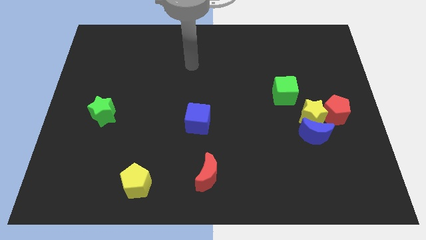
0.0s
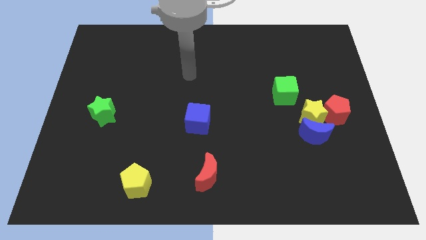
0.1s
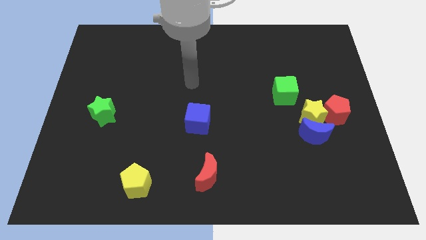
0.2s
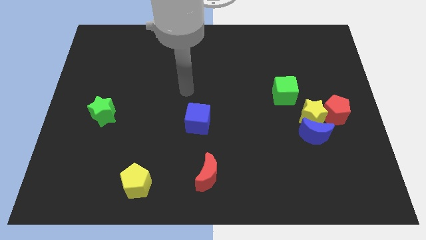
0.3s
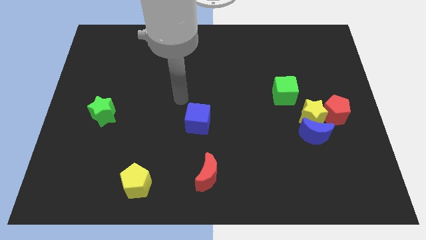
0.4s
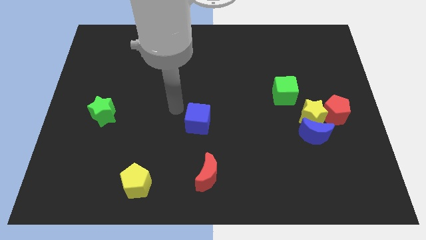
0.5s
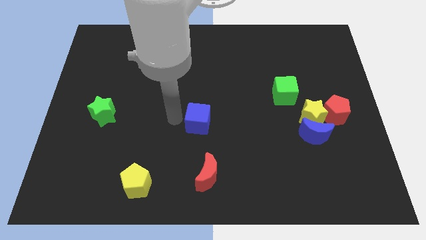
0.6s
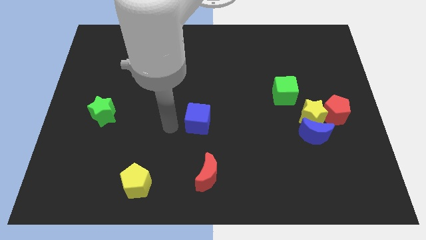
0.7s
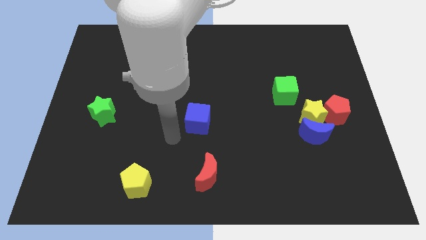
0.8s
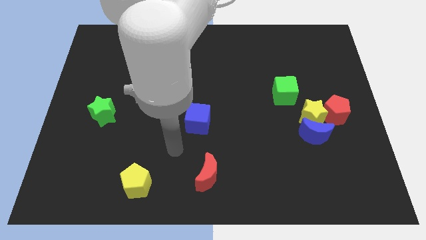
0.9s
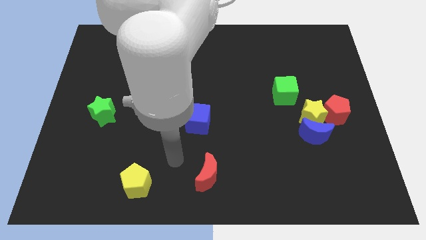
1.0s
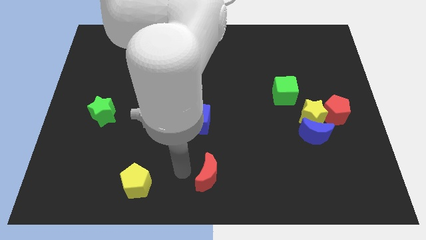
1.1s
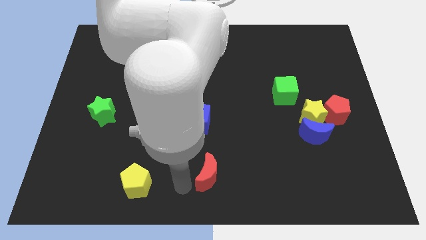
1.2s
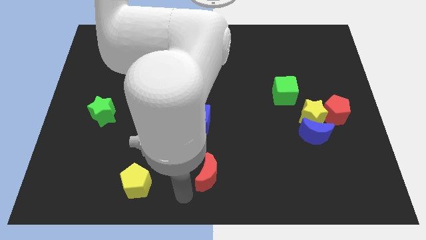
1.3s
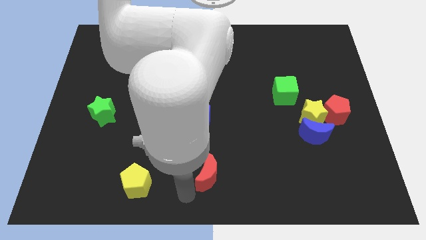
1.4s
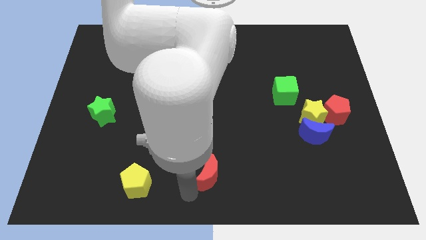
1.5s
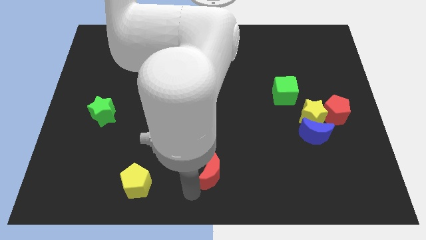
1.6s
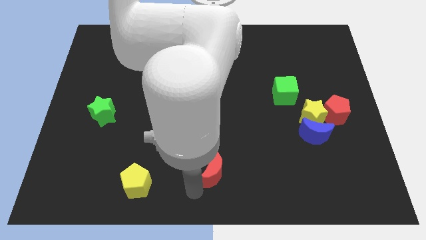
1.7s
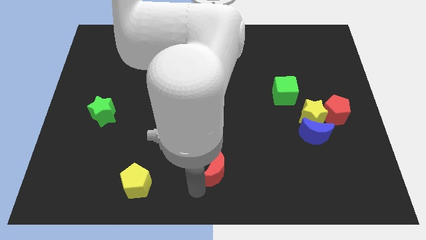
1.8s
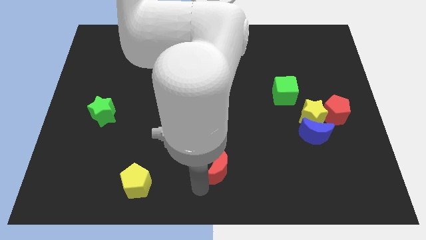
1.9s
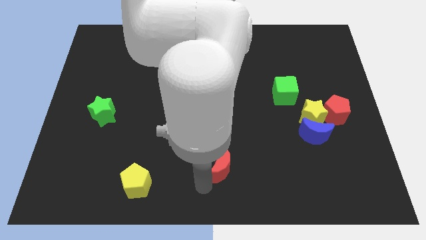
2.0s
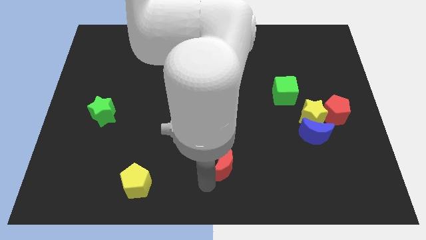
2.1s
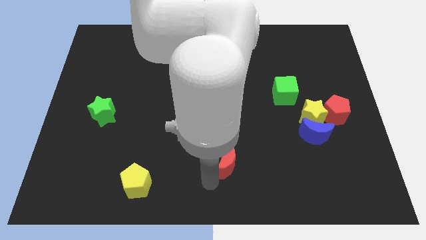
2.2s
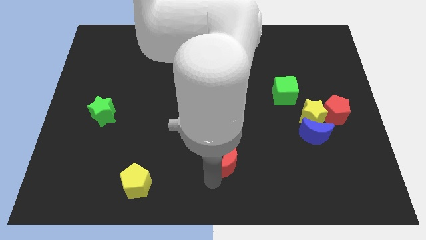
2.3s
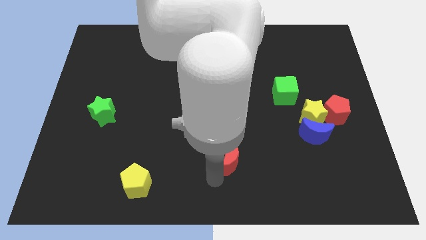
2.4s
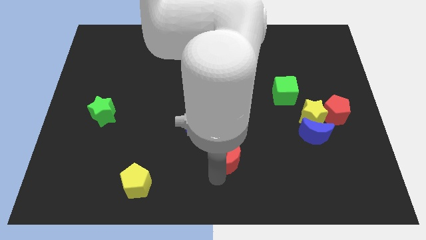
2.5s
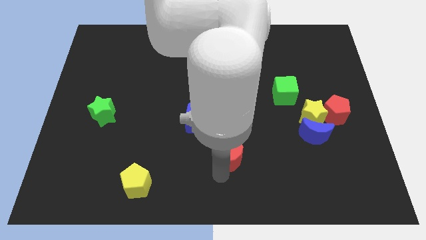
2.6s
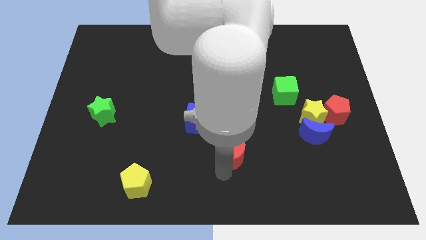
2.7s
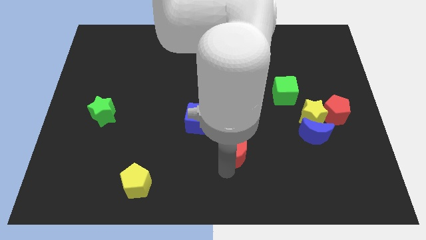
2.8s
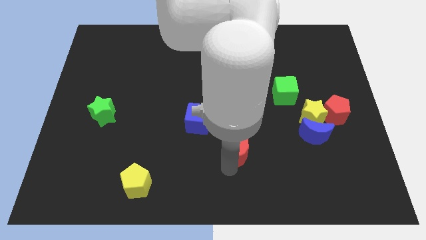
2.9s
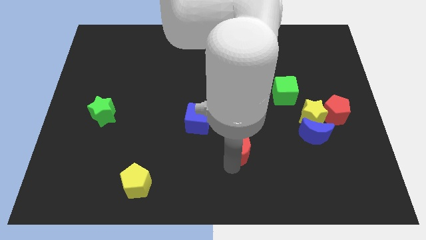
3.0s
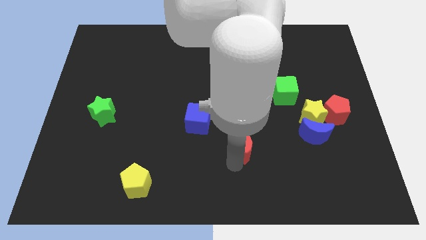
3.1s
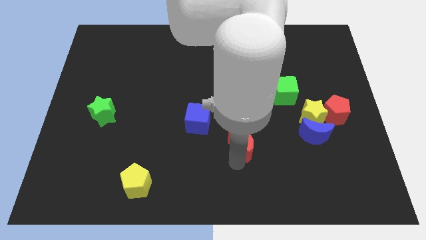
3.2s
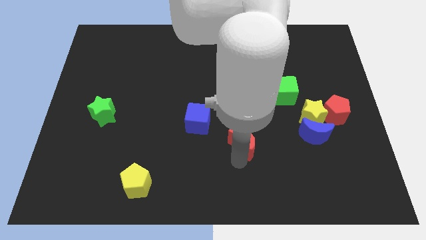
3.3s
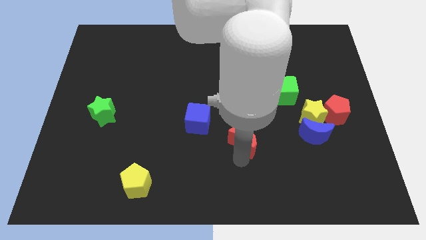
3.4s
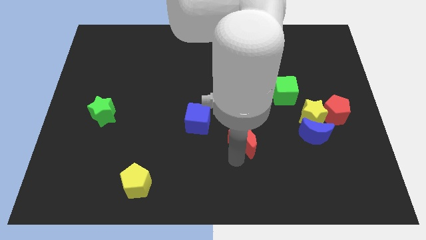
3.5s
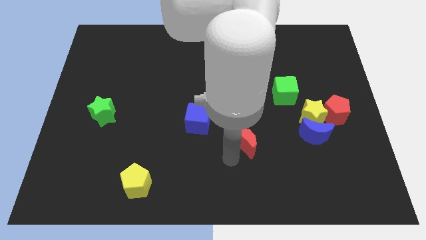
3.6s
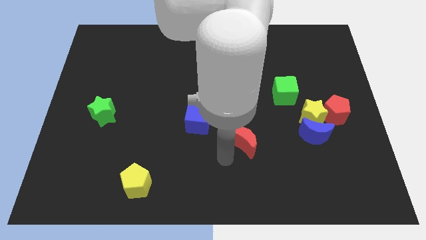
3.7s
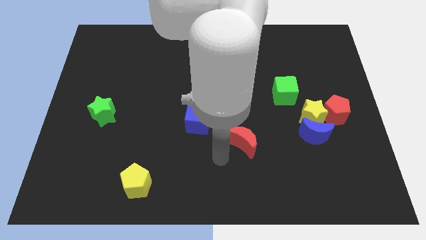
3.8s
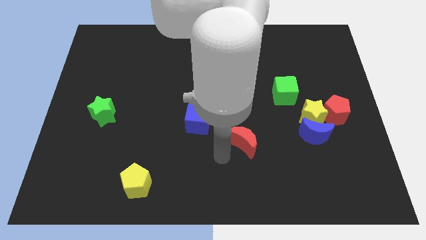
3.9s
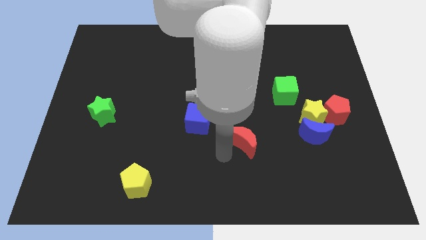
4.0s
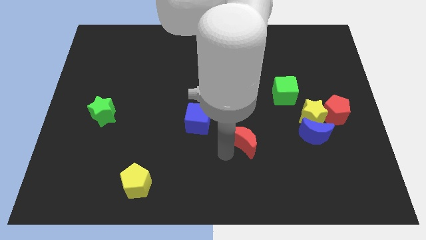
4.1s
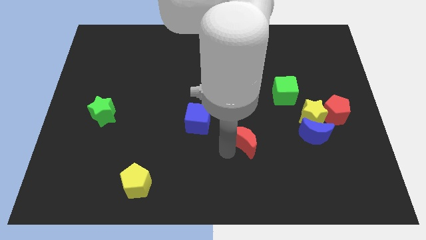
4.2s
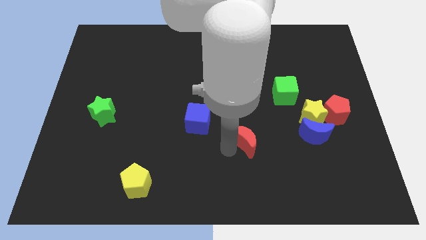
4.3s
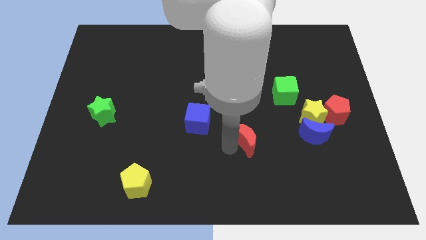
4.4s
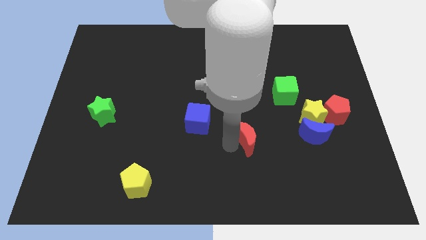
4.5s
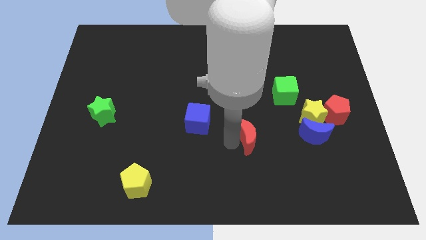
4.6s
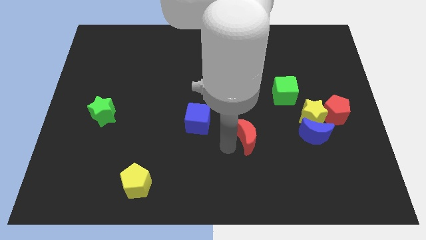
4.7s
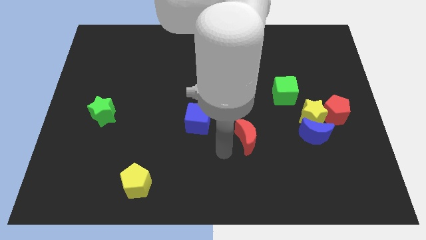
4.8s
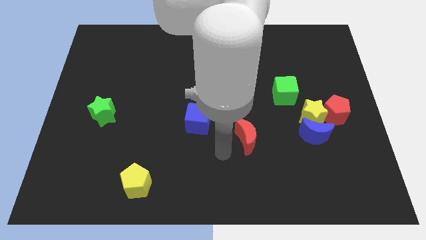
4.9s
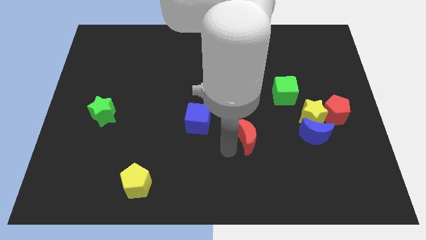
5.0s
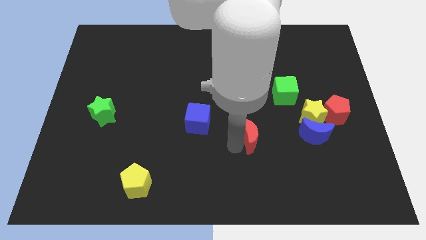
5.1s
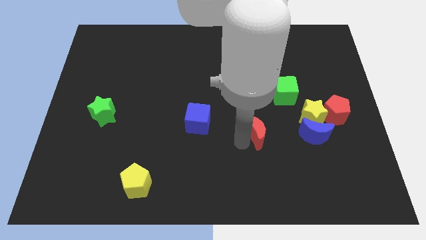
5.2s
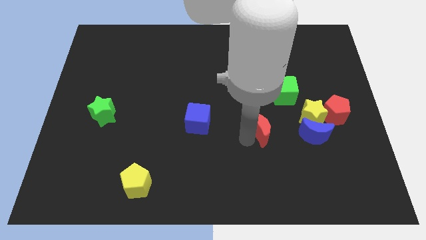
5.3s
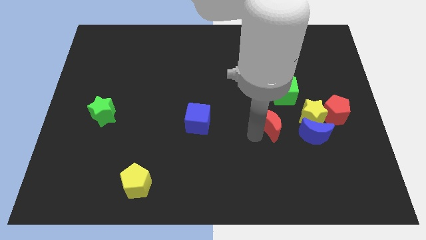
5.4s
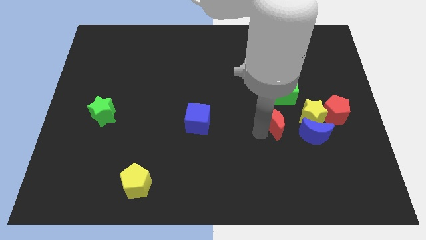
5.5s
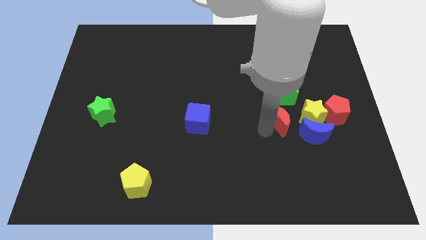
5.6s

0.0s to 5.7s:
push the red moon diagonally up and right

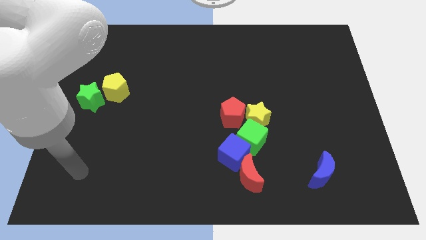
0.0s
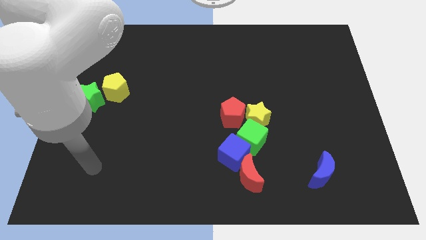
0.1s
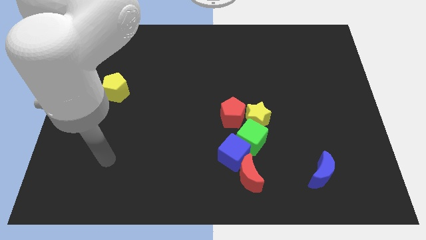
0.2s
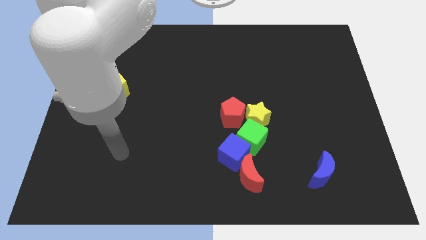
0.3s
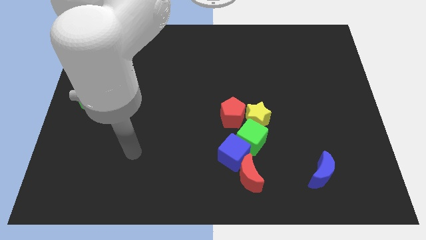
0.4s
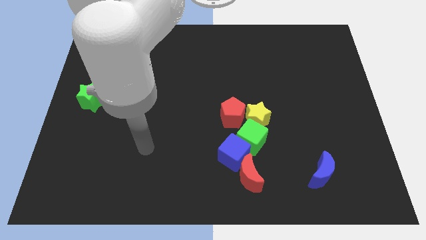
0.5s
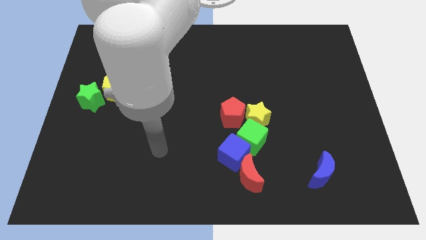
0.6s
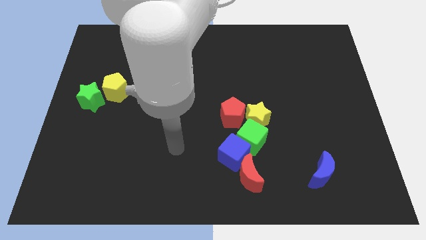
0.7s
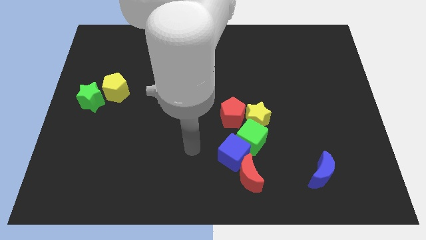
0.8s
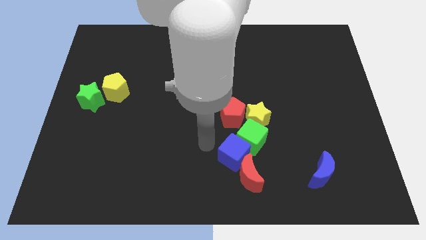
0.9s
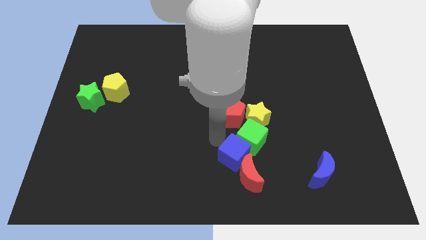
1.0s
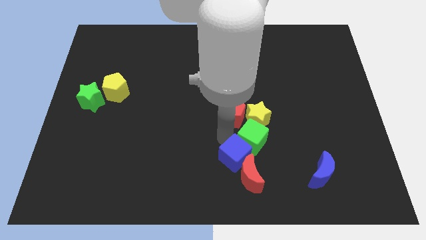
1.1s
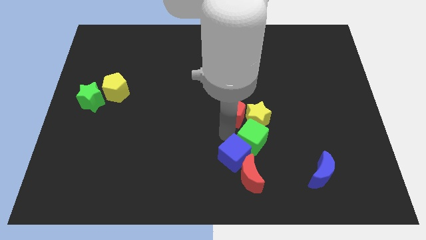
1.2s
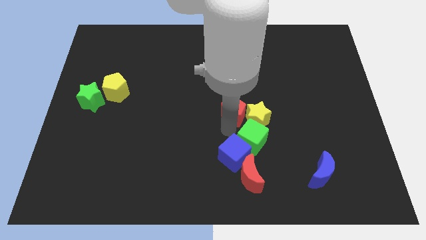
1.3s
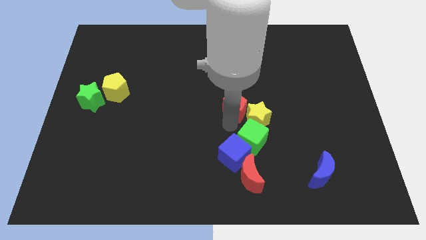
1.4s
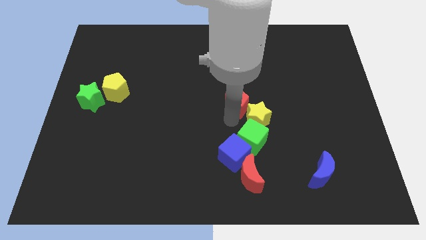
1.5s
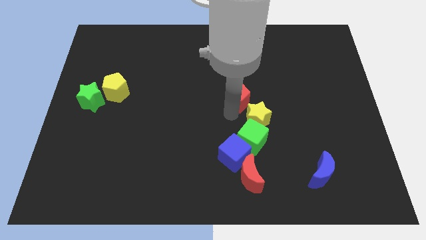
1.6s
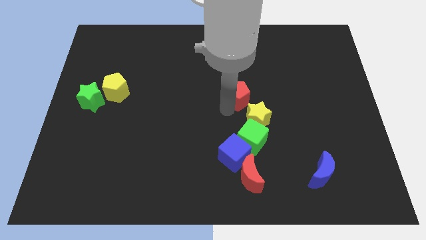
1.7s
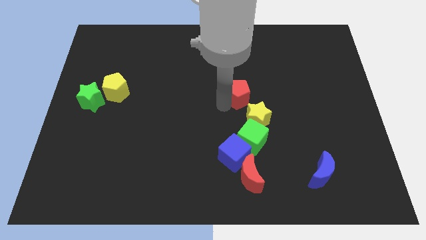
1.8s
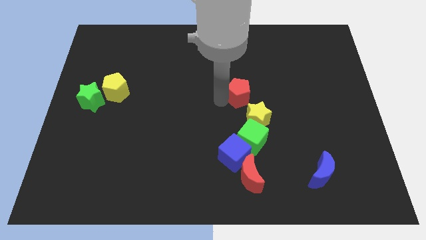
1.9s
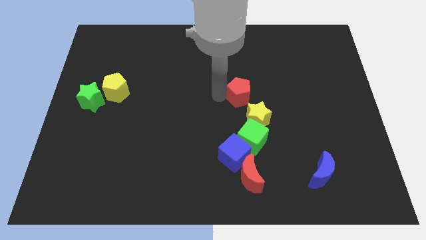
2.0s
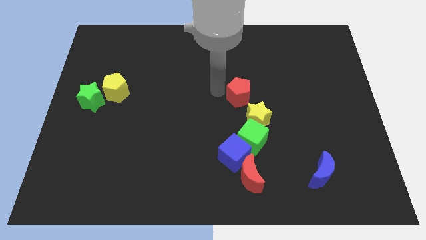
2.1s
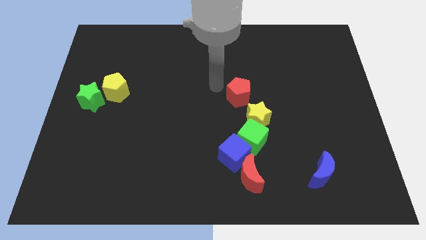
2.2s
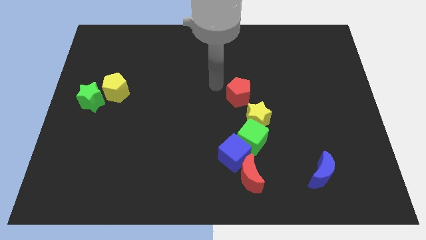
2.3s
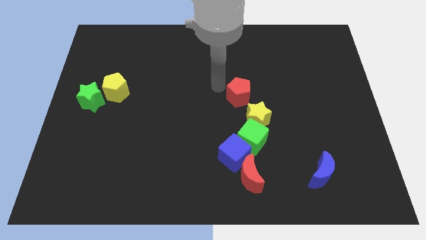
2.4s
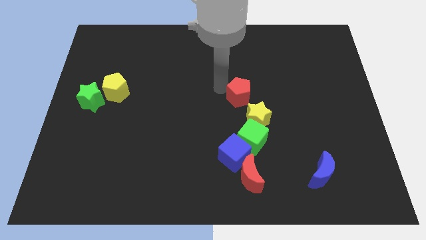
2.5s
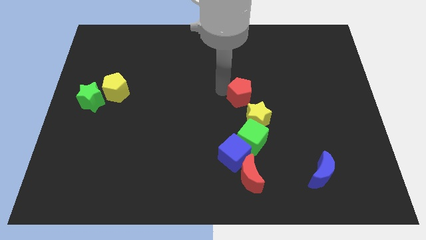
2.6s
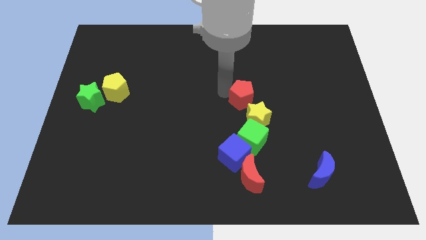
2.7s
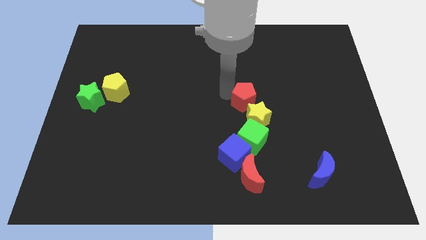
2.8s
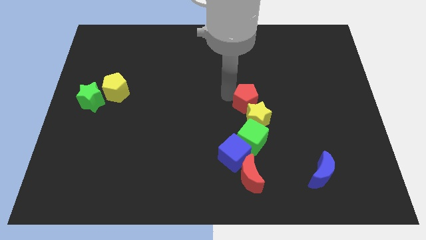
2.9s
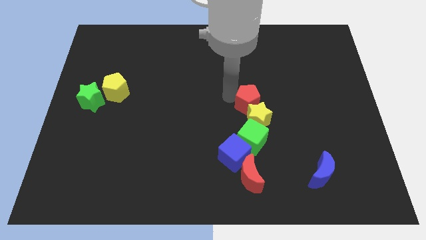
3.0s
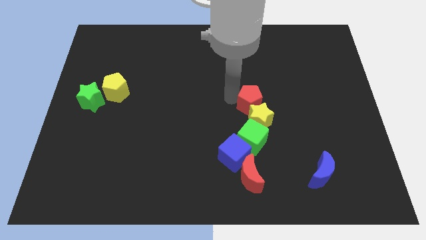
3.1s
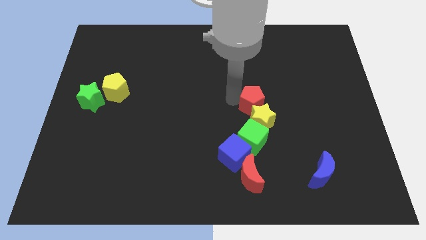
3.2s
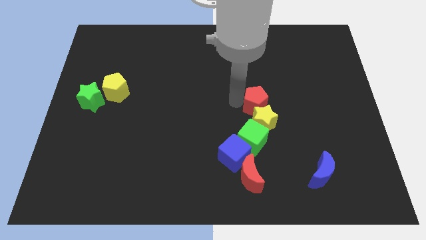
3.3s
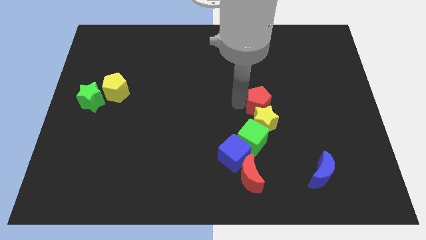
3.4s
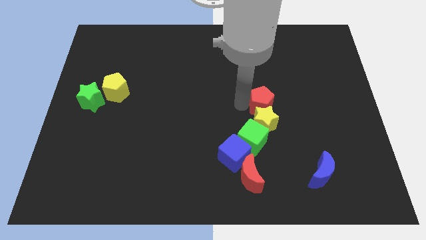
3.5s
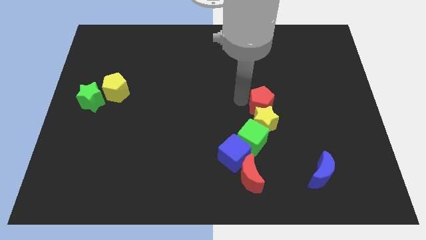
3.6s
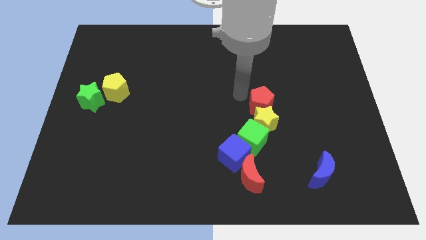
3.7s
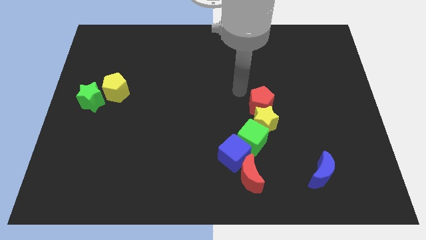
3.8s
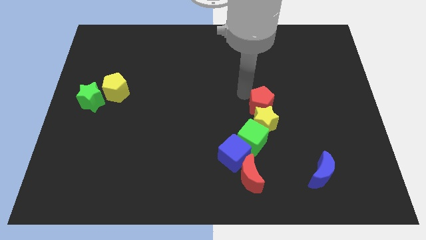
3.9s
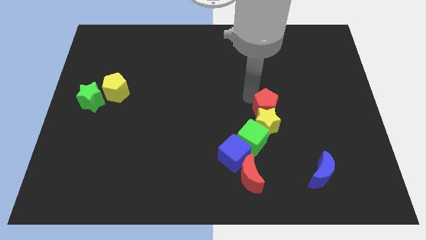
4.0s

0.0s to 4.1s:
push the red pentagon to the right a bit
